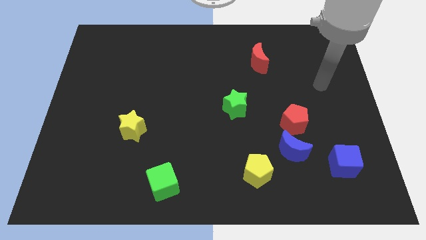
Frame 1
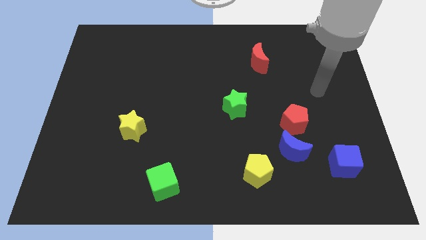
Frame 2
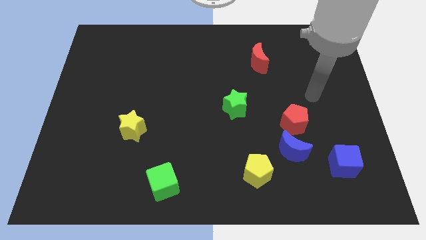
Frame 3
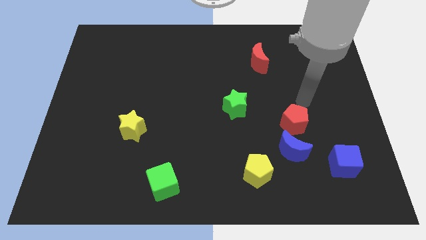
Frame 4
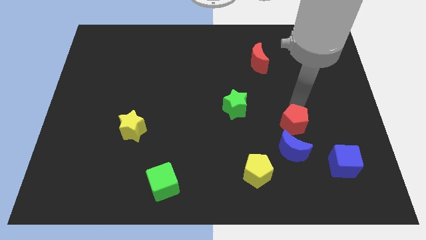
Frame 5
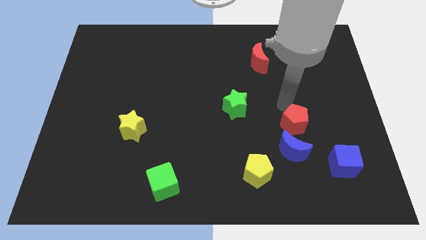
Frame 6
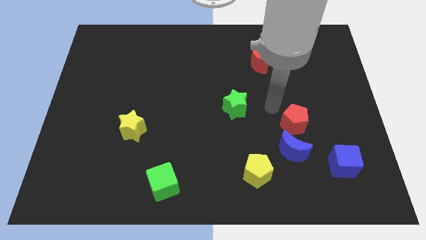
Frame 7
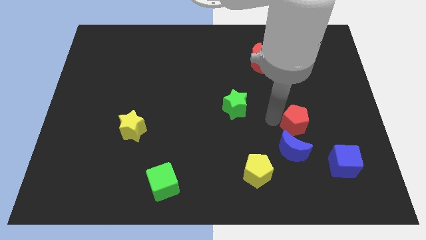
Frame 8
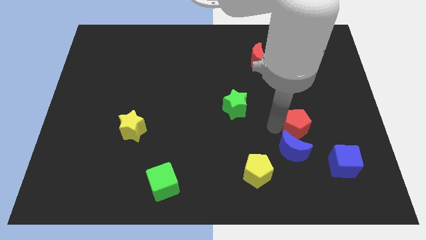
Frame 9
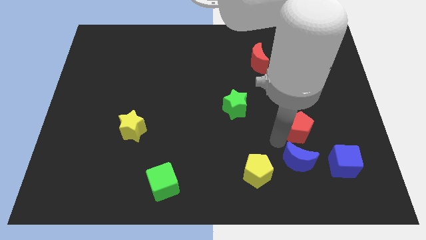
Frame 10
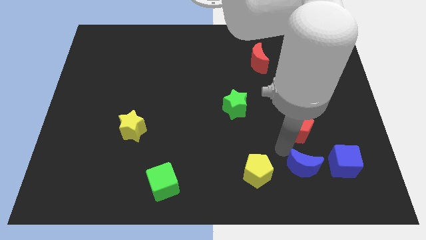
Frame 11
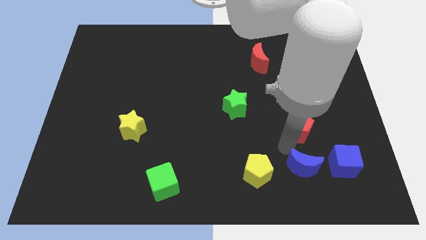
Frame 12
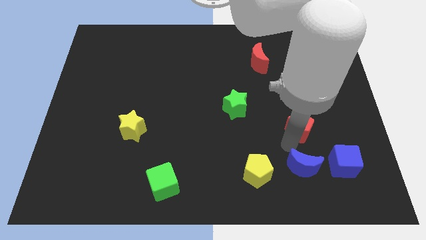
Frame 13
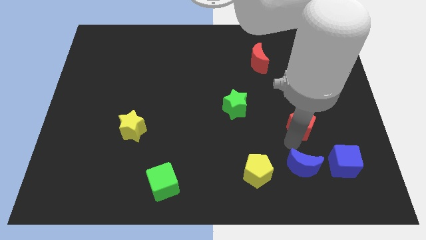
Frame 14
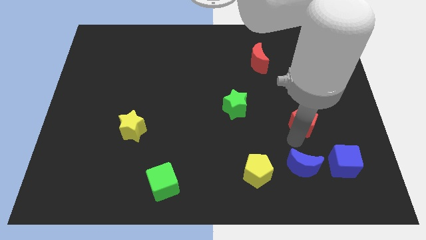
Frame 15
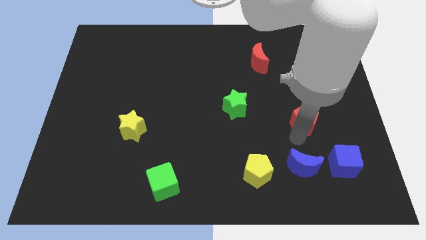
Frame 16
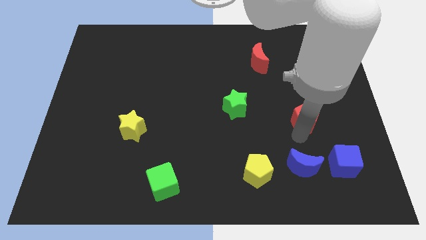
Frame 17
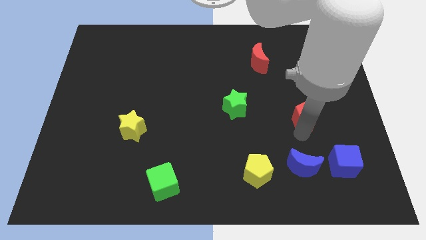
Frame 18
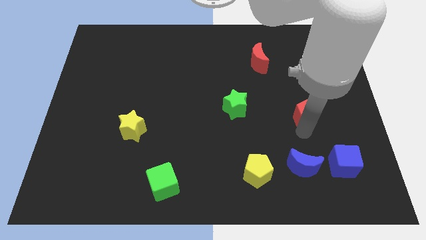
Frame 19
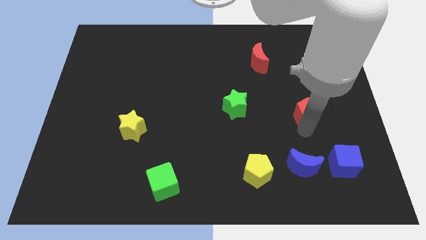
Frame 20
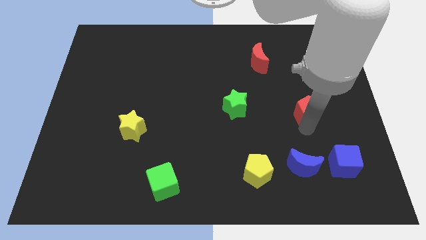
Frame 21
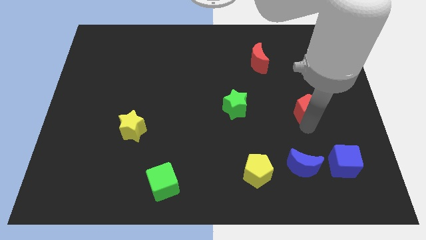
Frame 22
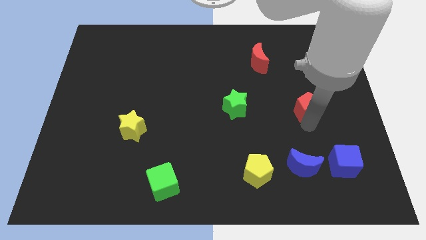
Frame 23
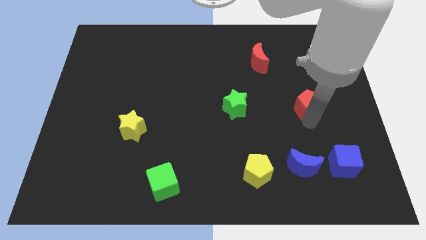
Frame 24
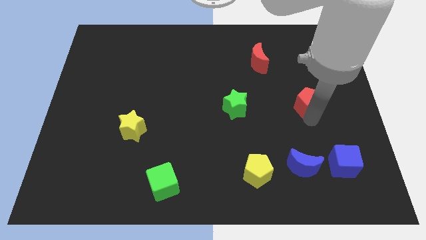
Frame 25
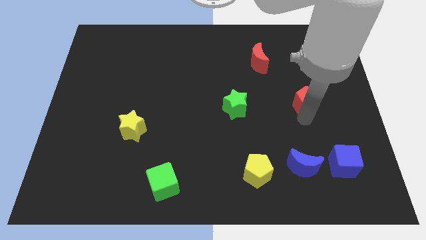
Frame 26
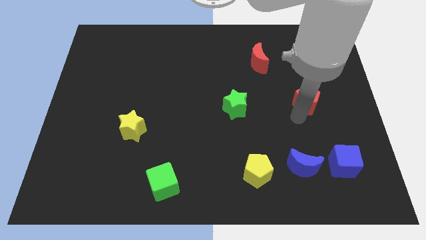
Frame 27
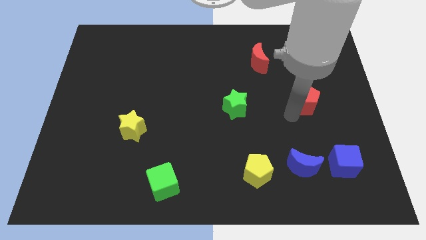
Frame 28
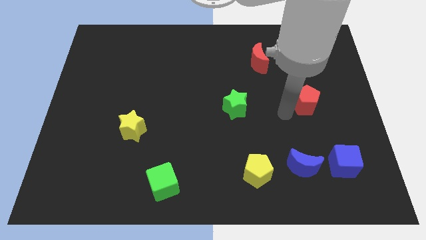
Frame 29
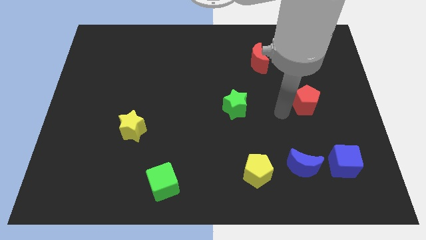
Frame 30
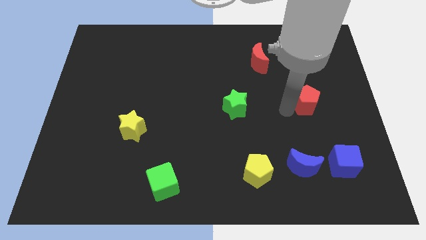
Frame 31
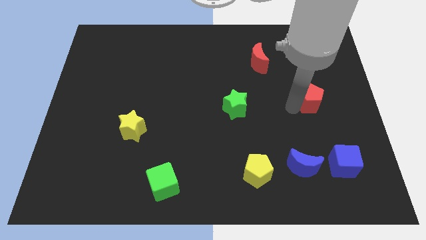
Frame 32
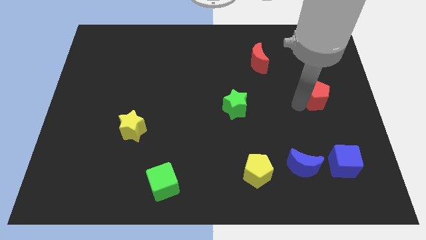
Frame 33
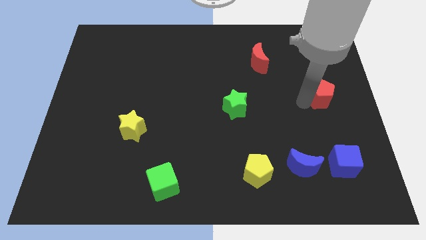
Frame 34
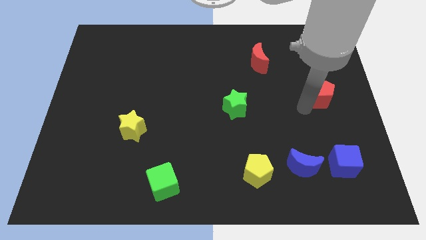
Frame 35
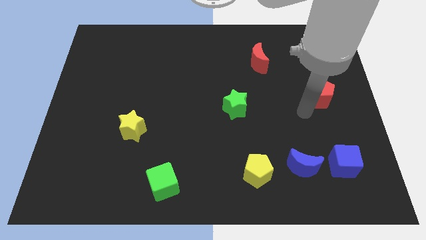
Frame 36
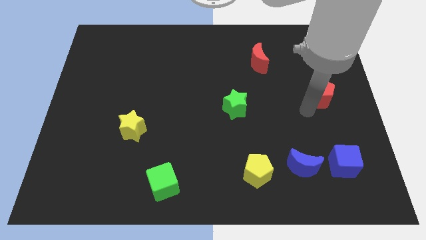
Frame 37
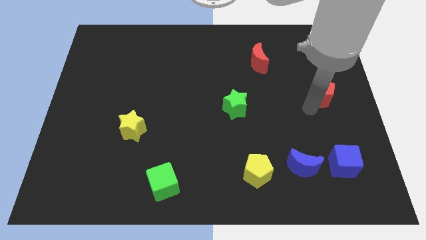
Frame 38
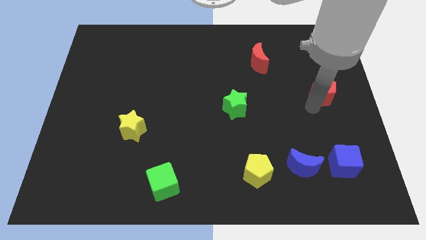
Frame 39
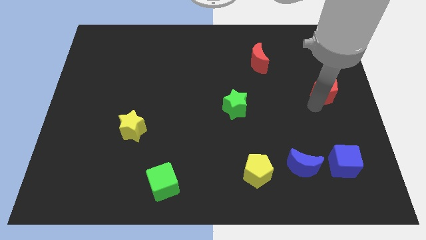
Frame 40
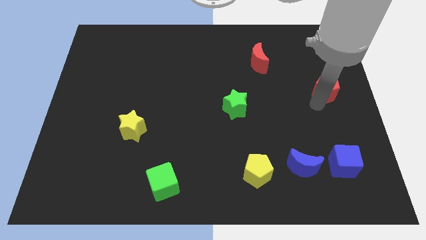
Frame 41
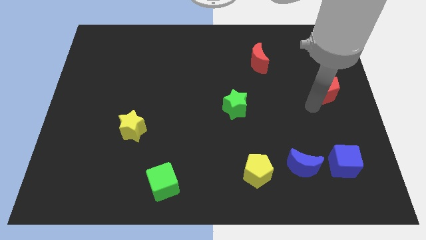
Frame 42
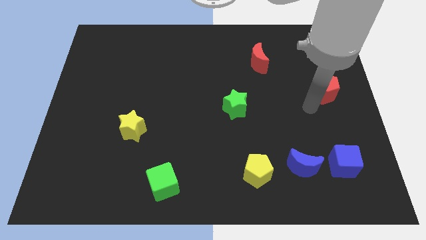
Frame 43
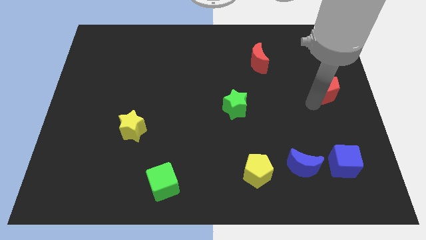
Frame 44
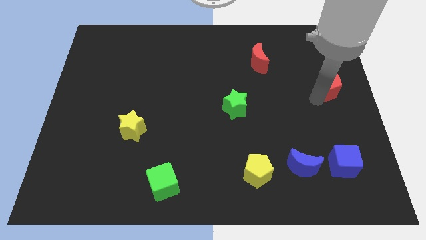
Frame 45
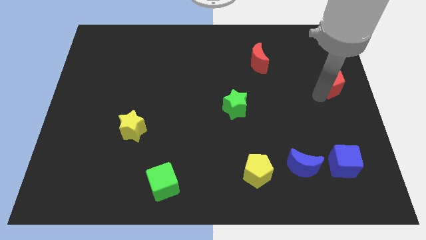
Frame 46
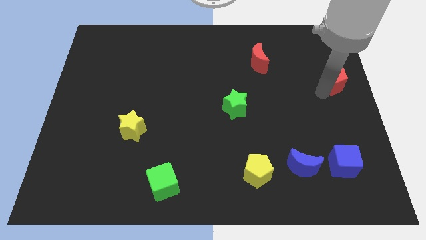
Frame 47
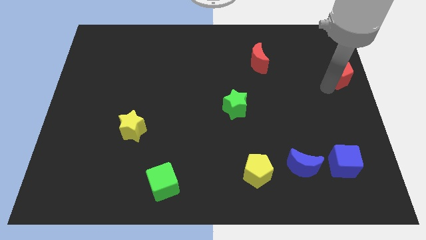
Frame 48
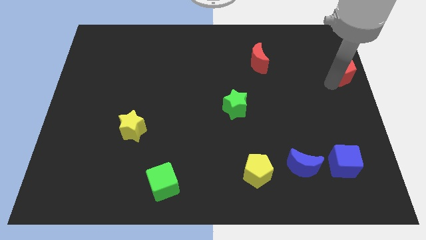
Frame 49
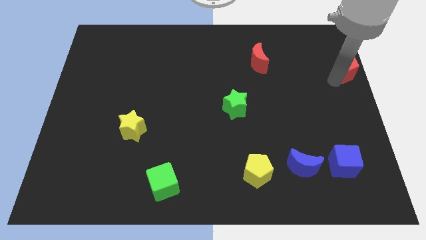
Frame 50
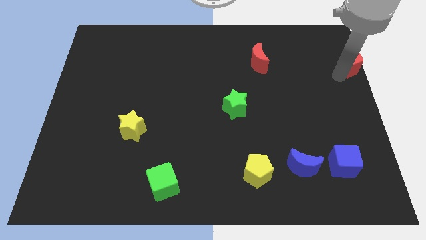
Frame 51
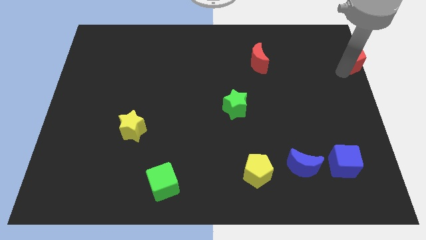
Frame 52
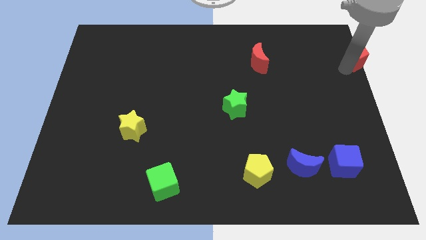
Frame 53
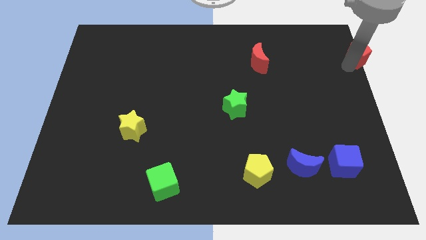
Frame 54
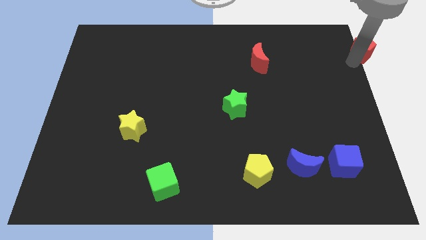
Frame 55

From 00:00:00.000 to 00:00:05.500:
put the red pentagon to the upper right corner
